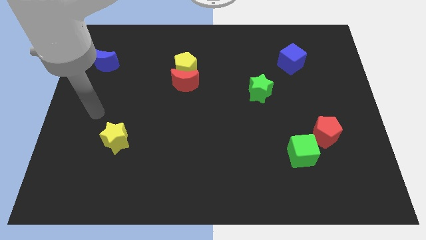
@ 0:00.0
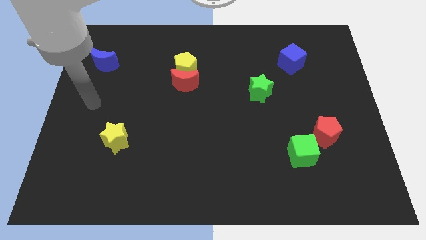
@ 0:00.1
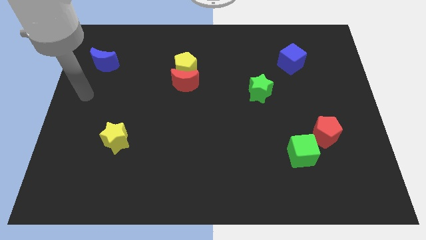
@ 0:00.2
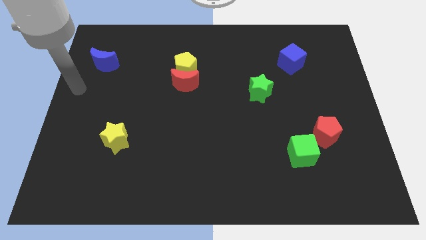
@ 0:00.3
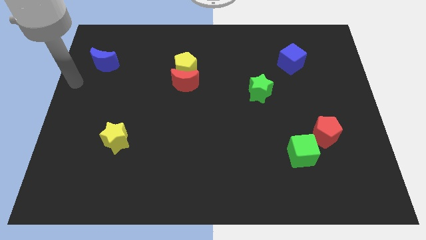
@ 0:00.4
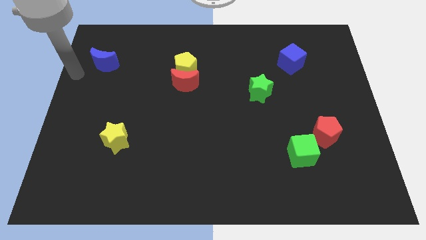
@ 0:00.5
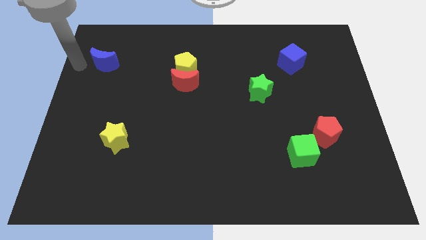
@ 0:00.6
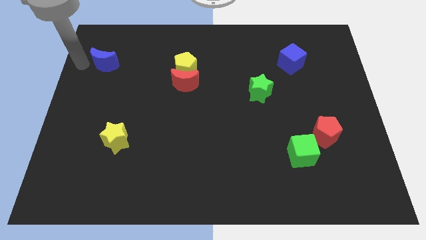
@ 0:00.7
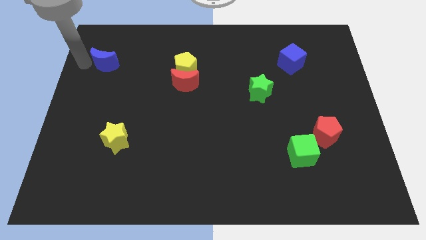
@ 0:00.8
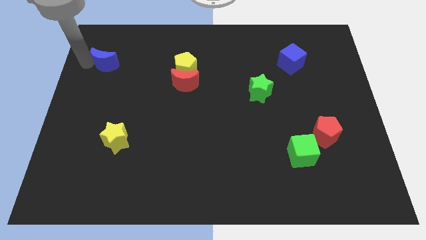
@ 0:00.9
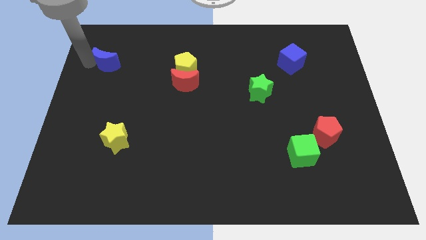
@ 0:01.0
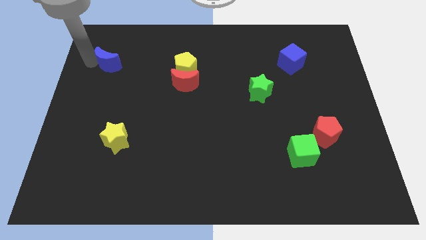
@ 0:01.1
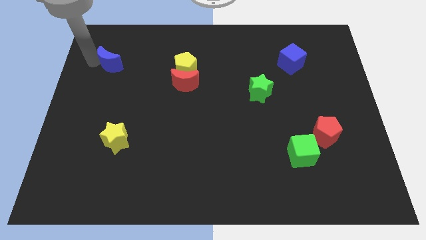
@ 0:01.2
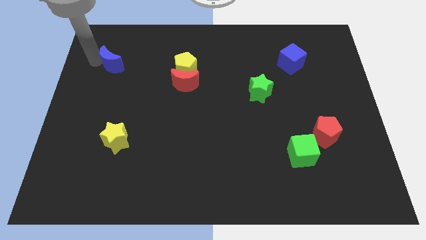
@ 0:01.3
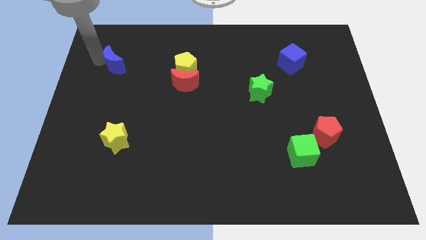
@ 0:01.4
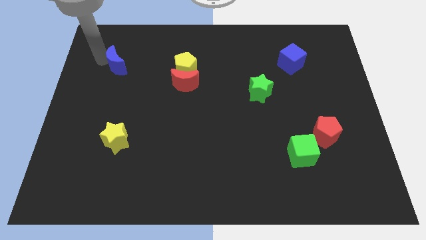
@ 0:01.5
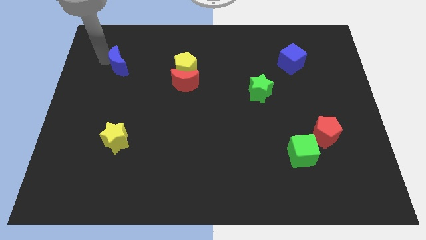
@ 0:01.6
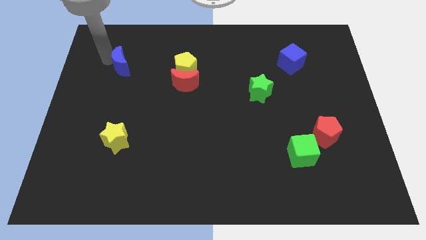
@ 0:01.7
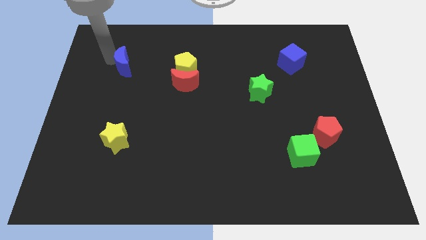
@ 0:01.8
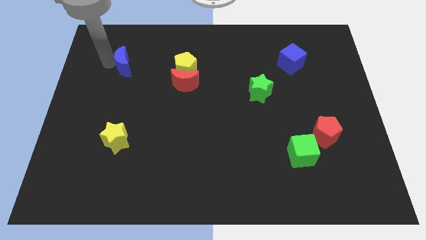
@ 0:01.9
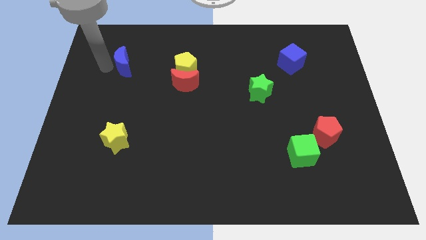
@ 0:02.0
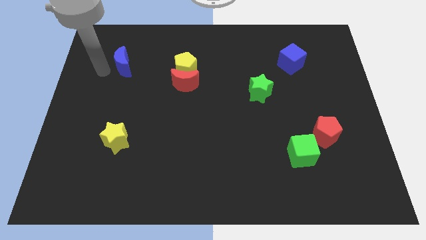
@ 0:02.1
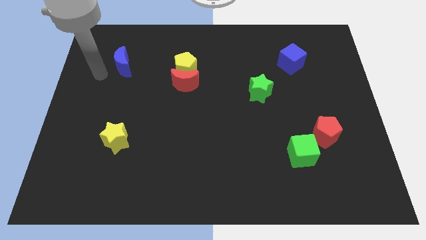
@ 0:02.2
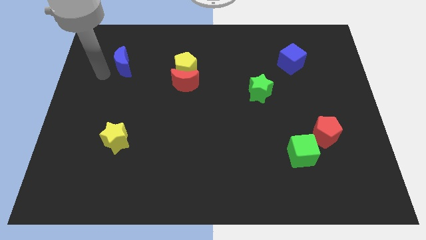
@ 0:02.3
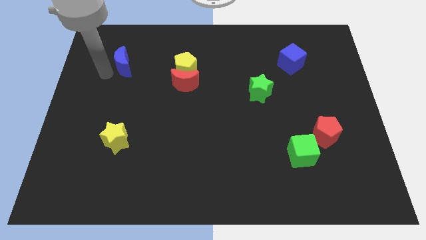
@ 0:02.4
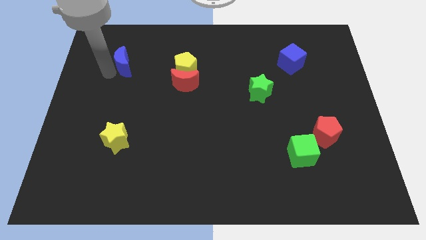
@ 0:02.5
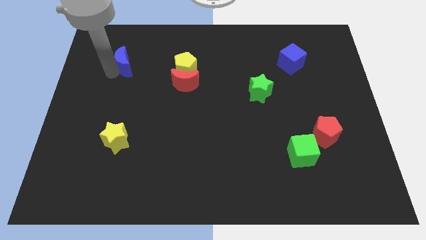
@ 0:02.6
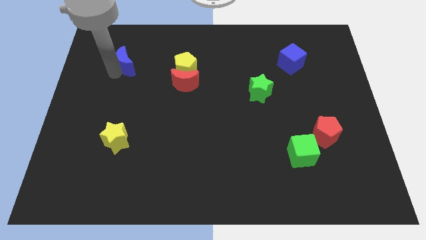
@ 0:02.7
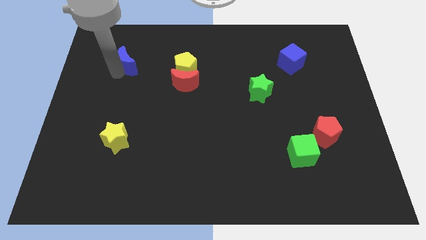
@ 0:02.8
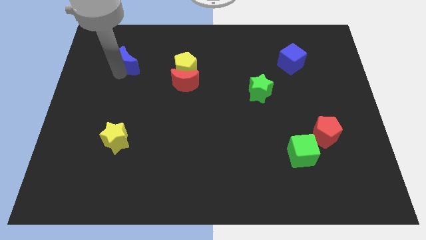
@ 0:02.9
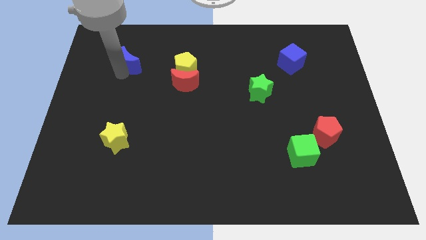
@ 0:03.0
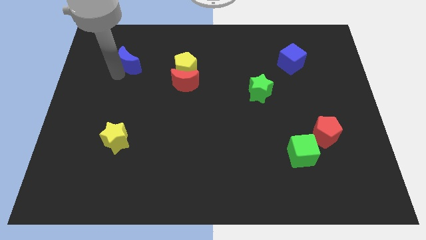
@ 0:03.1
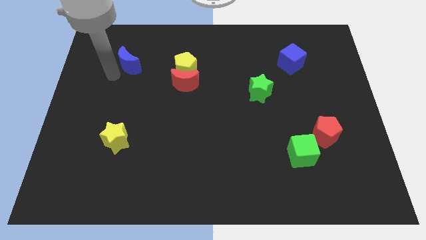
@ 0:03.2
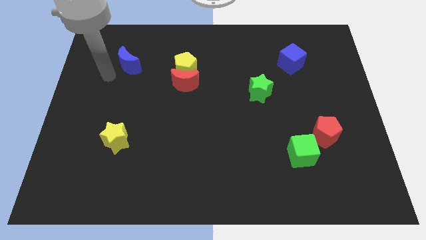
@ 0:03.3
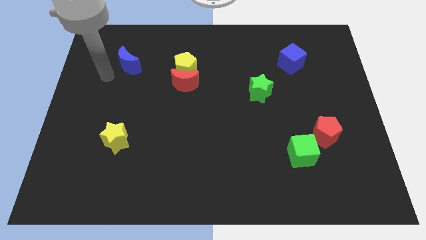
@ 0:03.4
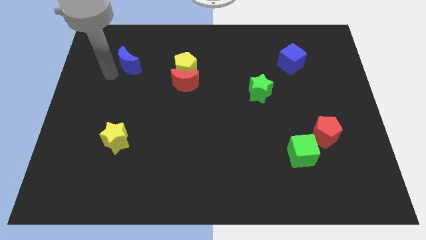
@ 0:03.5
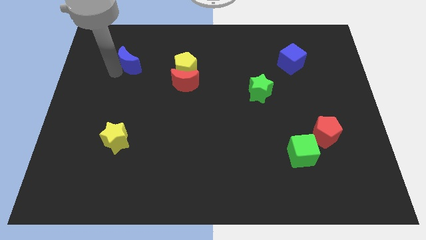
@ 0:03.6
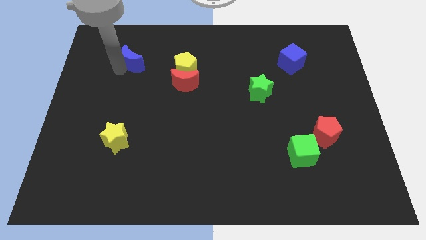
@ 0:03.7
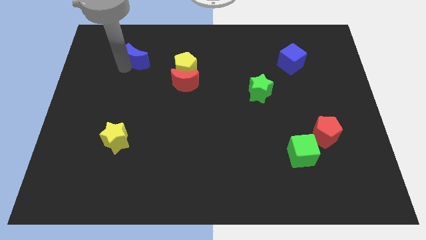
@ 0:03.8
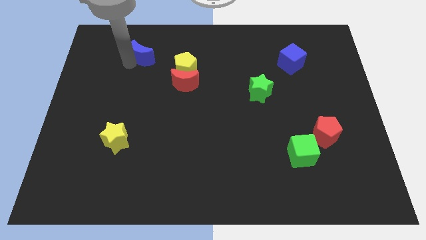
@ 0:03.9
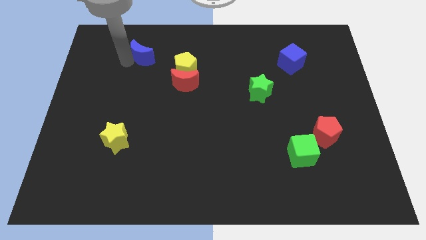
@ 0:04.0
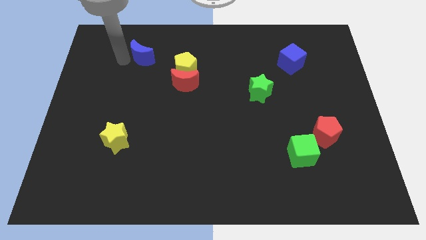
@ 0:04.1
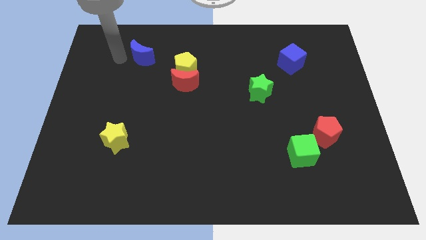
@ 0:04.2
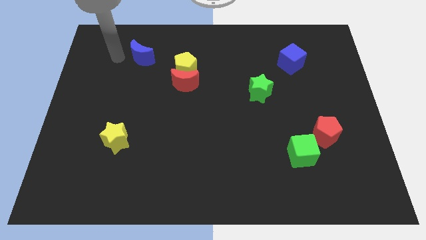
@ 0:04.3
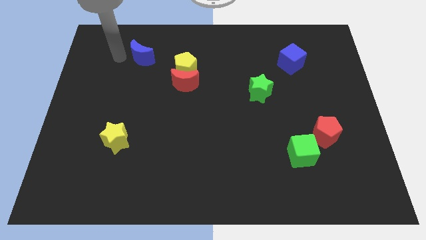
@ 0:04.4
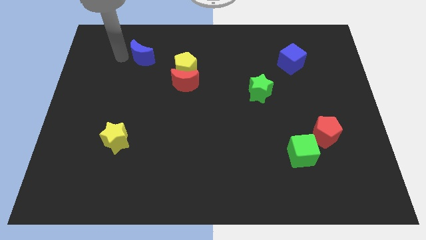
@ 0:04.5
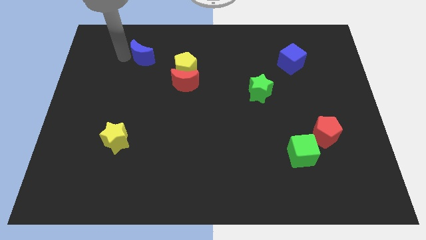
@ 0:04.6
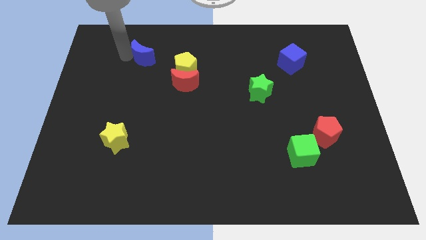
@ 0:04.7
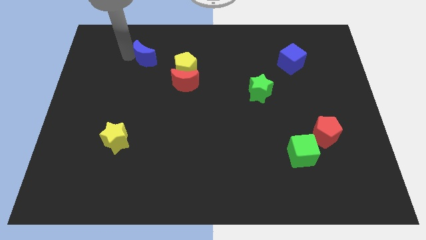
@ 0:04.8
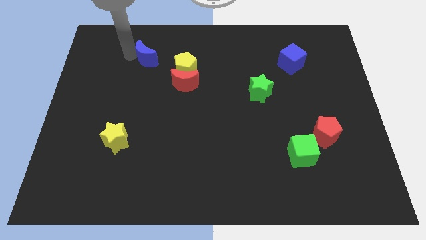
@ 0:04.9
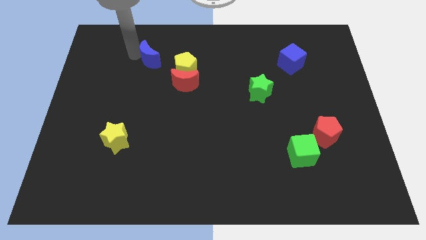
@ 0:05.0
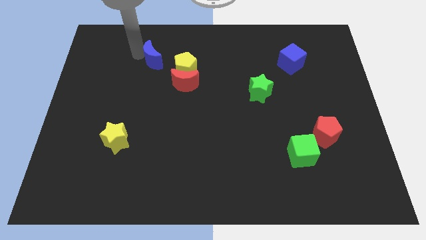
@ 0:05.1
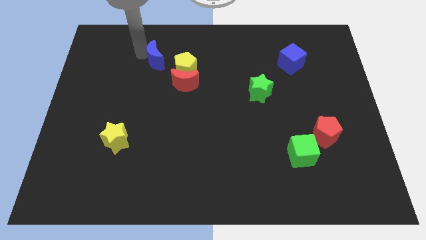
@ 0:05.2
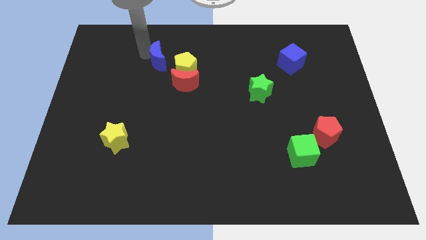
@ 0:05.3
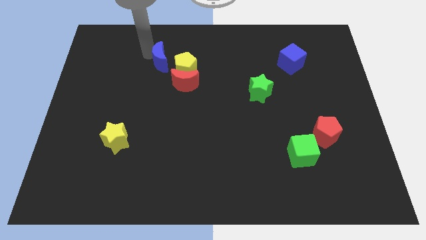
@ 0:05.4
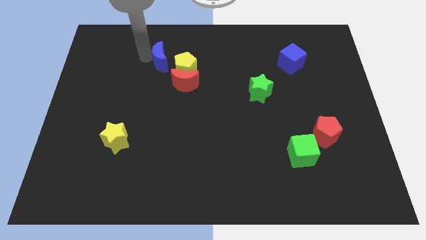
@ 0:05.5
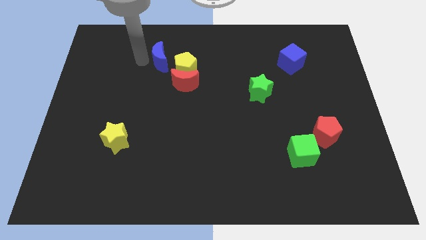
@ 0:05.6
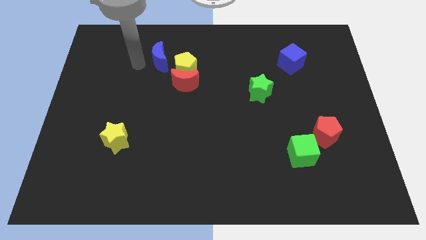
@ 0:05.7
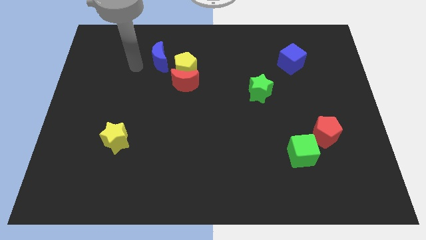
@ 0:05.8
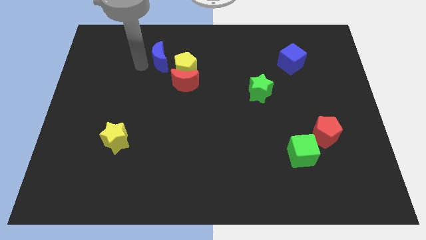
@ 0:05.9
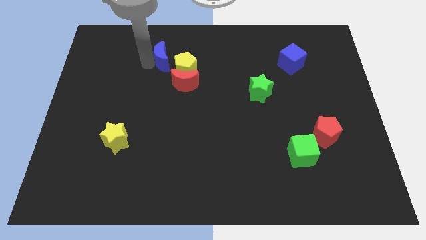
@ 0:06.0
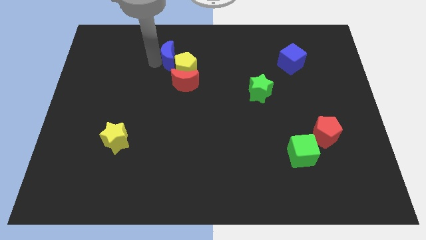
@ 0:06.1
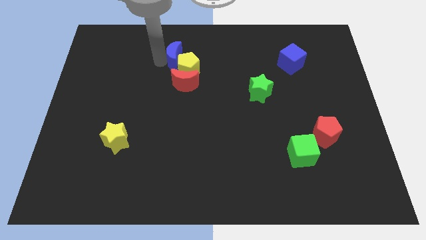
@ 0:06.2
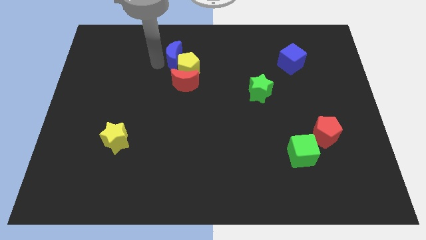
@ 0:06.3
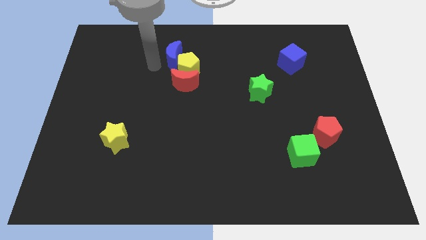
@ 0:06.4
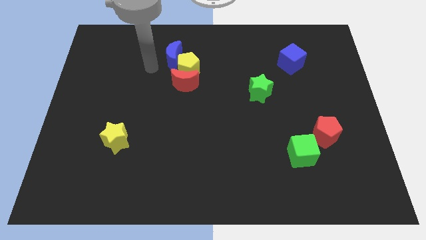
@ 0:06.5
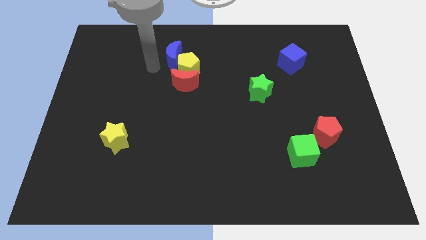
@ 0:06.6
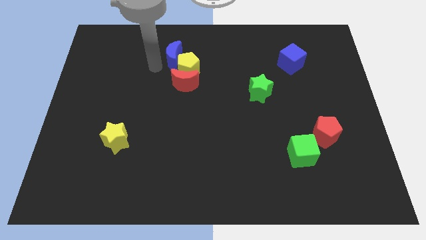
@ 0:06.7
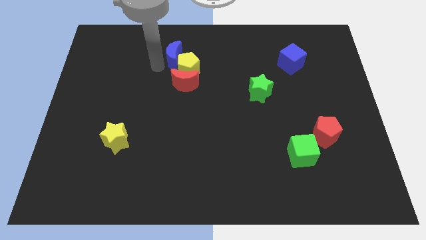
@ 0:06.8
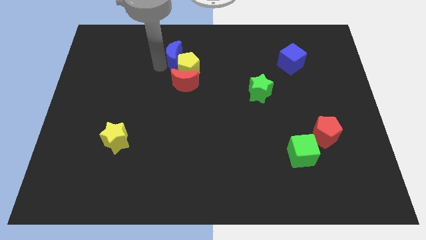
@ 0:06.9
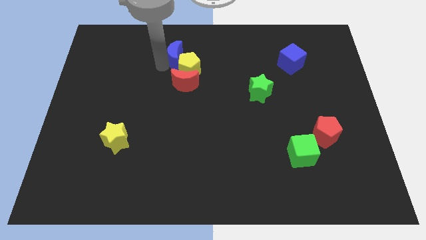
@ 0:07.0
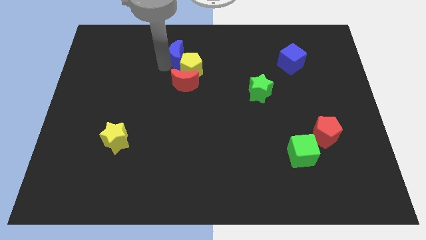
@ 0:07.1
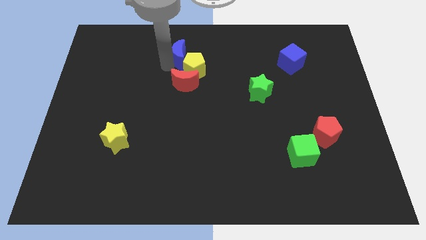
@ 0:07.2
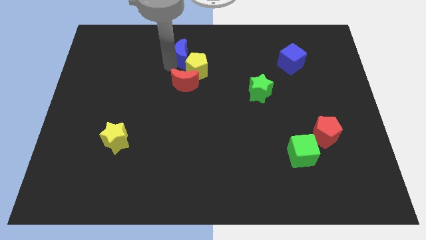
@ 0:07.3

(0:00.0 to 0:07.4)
slide the blue moon to the right

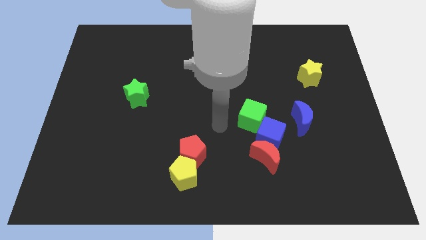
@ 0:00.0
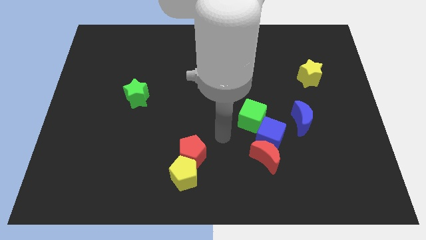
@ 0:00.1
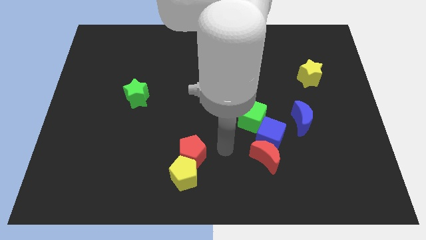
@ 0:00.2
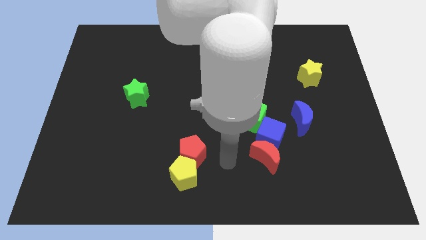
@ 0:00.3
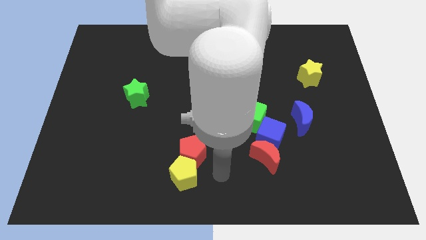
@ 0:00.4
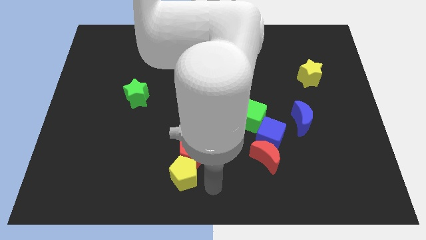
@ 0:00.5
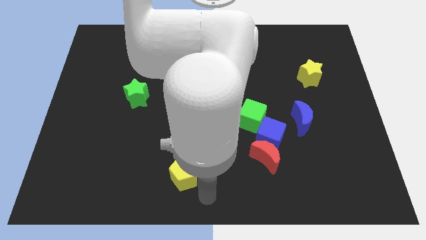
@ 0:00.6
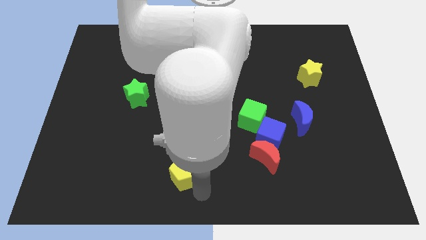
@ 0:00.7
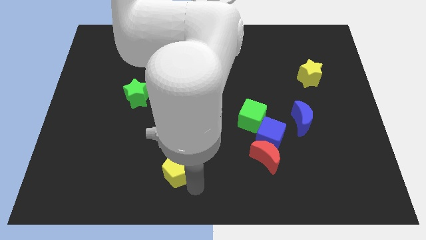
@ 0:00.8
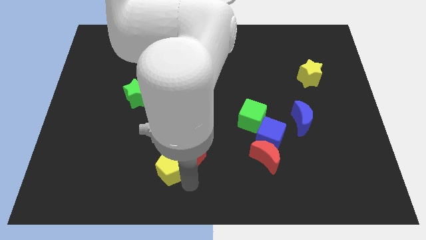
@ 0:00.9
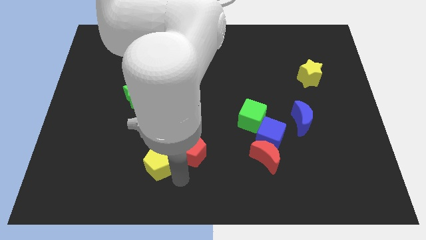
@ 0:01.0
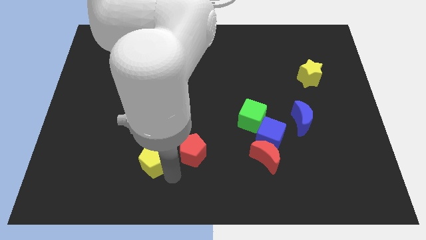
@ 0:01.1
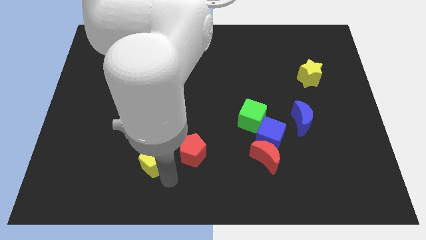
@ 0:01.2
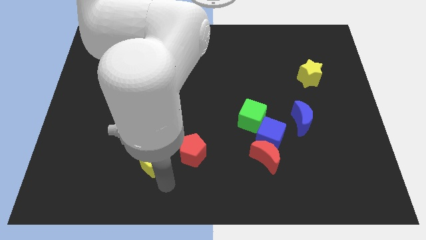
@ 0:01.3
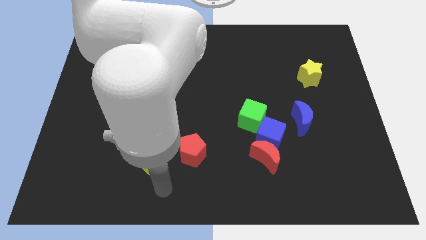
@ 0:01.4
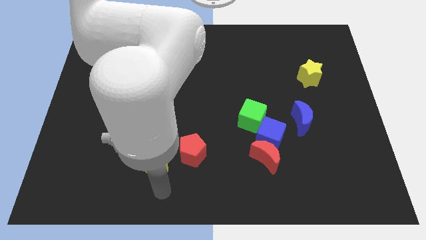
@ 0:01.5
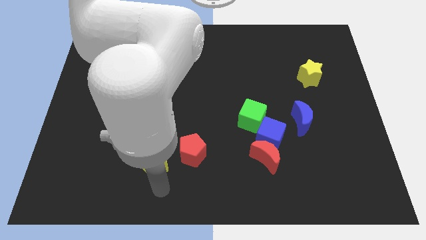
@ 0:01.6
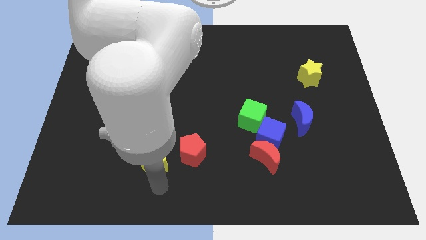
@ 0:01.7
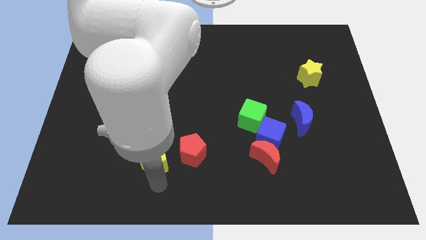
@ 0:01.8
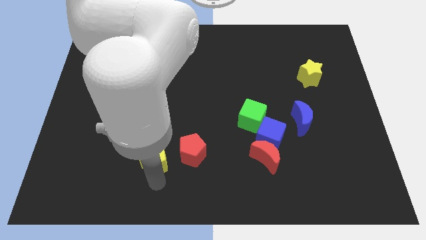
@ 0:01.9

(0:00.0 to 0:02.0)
push the yellow pentagon somewhat up and to the left diagonally
